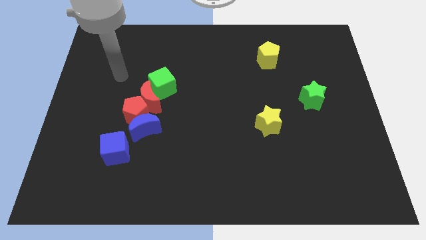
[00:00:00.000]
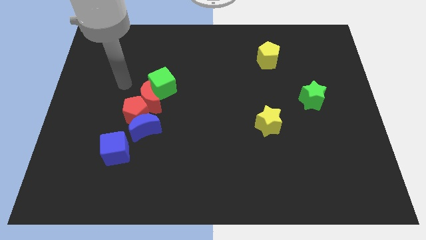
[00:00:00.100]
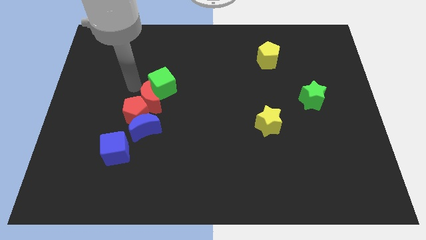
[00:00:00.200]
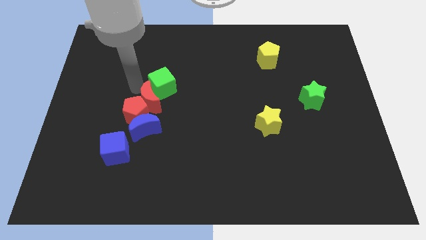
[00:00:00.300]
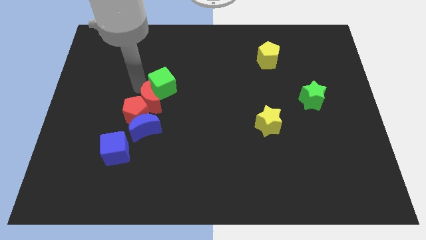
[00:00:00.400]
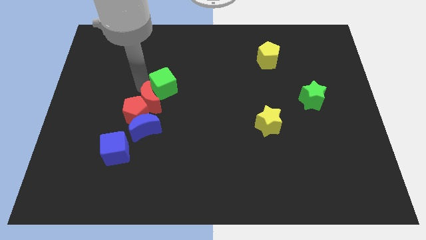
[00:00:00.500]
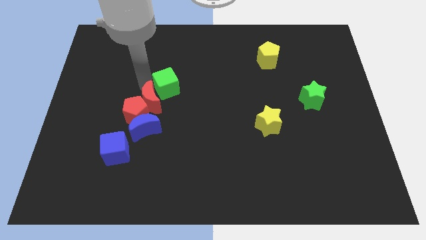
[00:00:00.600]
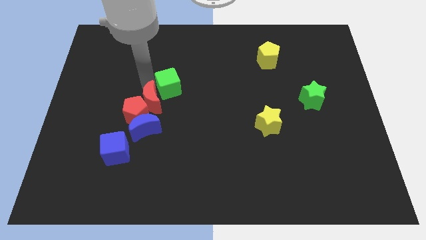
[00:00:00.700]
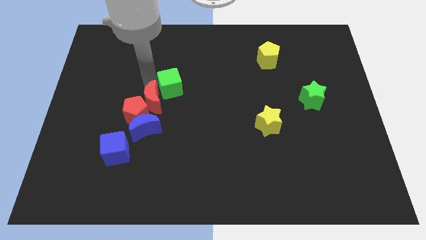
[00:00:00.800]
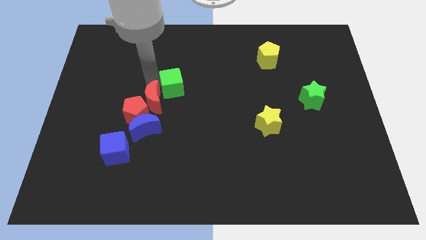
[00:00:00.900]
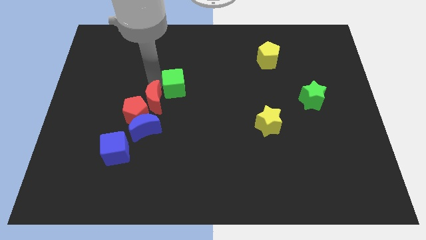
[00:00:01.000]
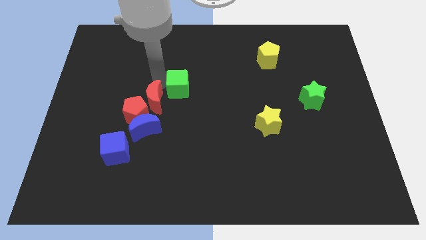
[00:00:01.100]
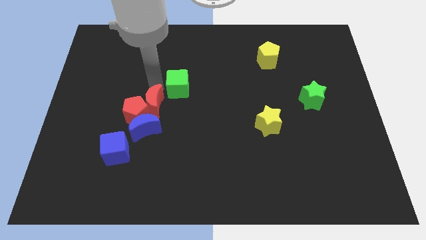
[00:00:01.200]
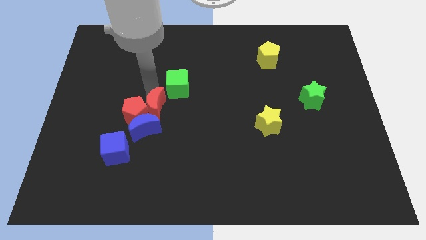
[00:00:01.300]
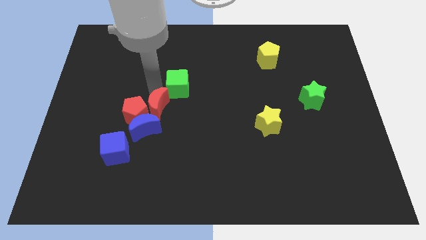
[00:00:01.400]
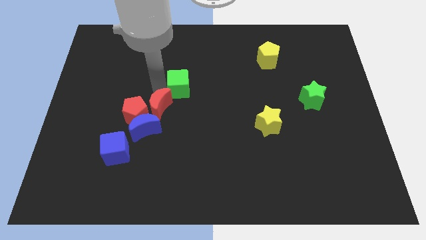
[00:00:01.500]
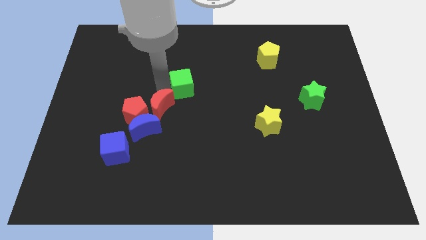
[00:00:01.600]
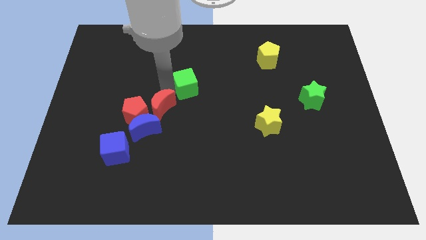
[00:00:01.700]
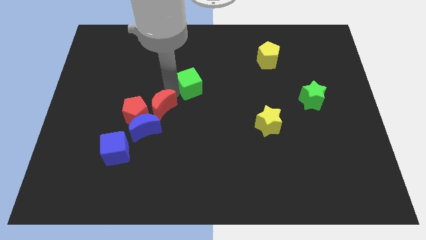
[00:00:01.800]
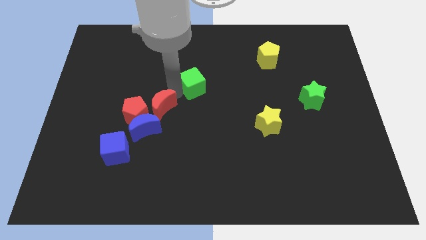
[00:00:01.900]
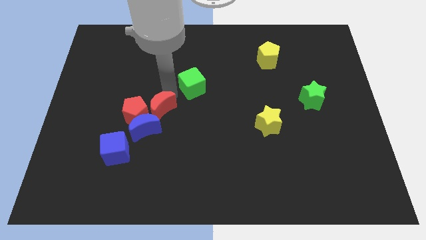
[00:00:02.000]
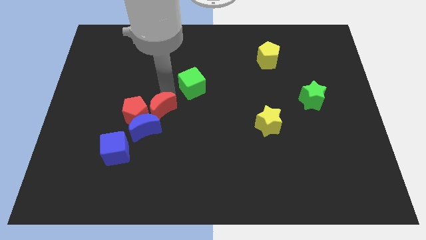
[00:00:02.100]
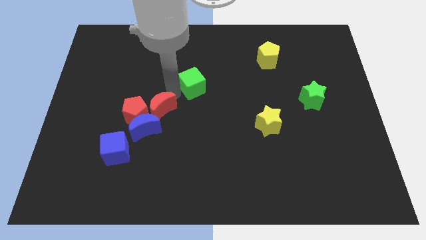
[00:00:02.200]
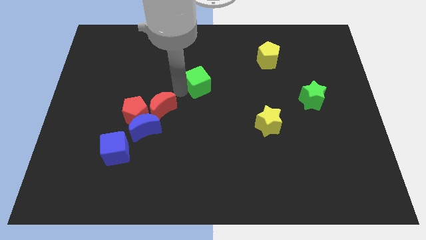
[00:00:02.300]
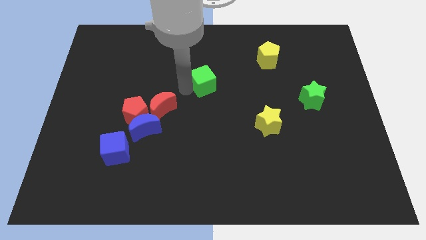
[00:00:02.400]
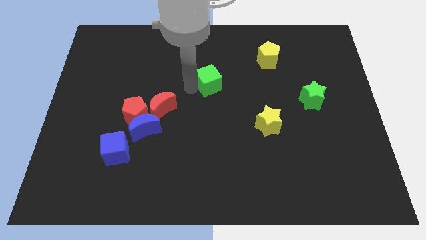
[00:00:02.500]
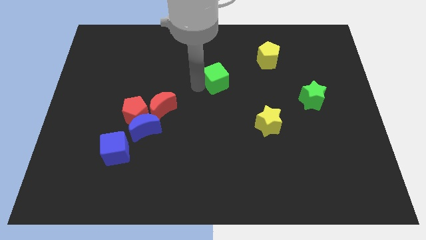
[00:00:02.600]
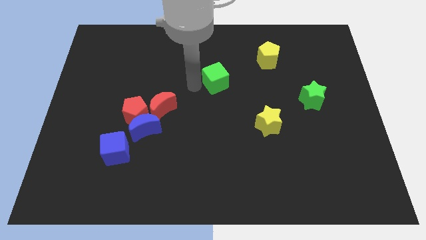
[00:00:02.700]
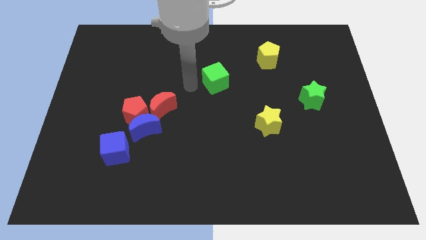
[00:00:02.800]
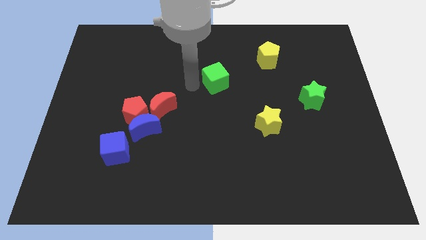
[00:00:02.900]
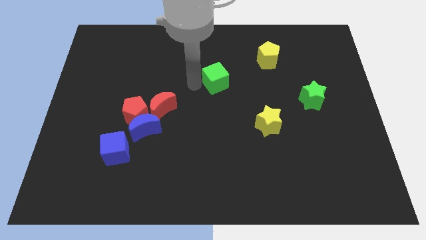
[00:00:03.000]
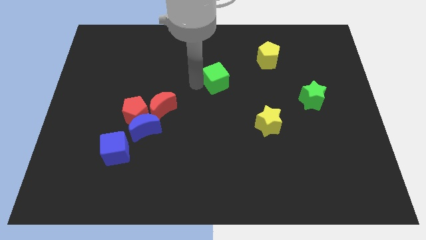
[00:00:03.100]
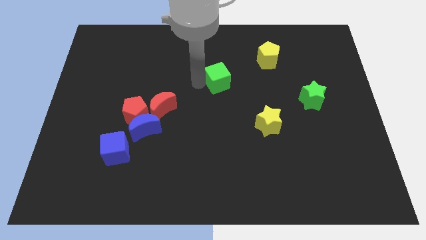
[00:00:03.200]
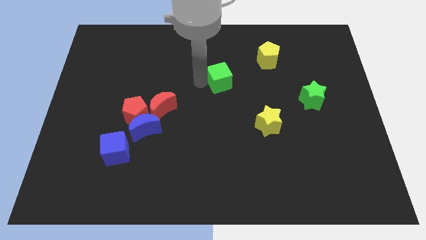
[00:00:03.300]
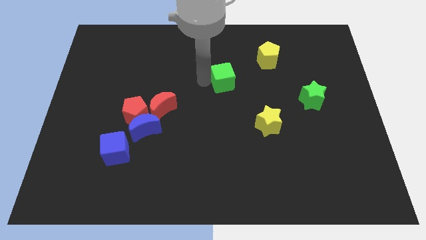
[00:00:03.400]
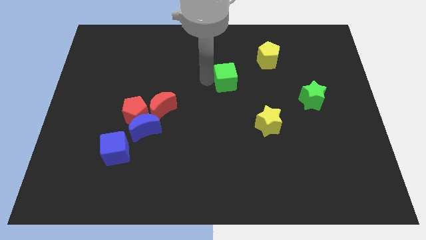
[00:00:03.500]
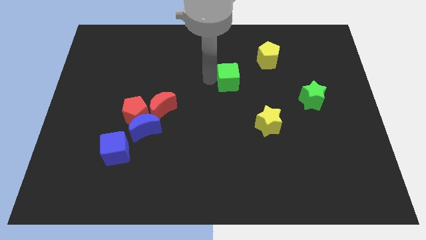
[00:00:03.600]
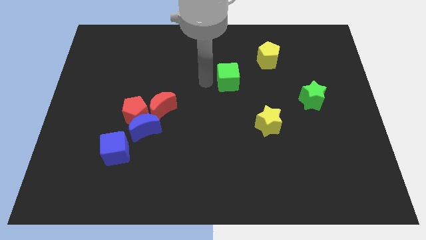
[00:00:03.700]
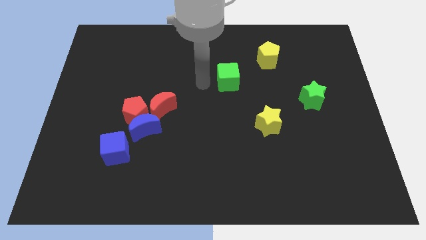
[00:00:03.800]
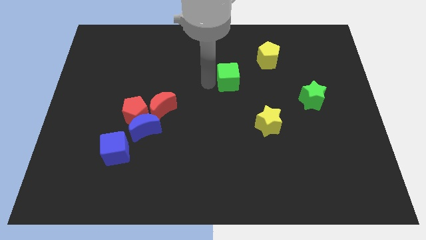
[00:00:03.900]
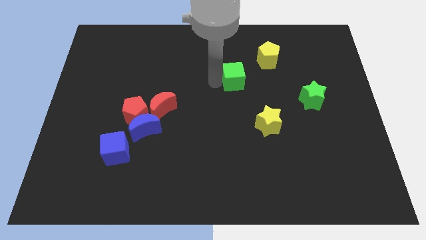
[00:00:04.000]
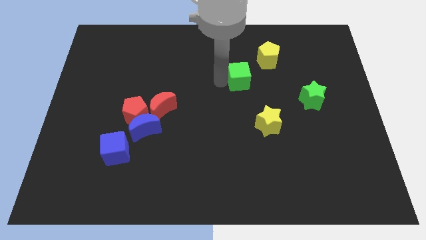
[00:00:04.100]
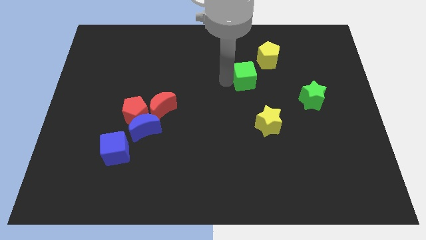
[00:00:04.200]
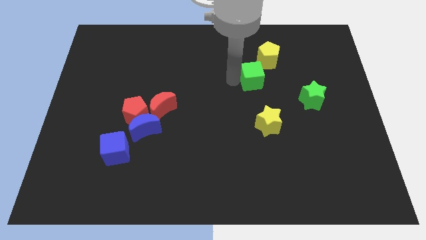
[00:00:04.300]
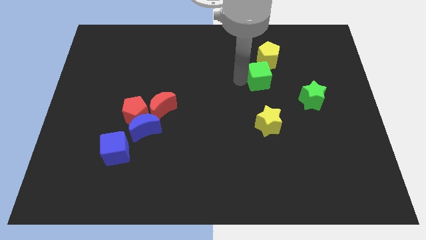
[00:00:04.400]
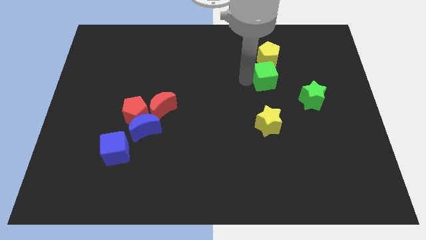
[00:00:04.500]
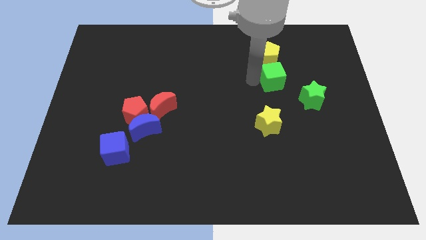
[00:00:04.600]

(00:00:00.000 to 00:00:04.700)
put the green cube diagonally down and to the right of the yellow pentagon

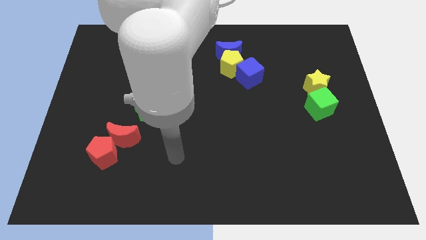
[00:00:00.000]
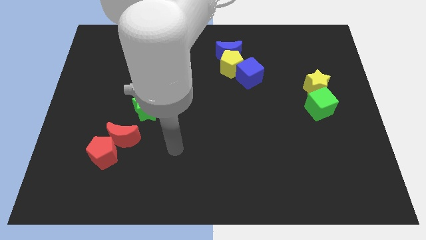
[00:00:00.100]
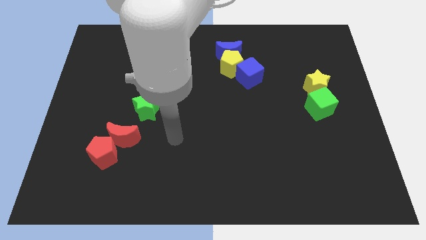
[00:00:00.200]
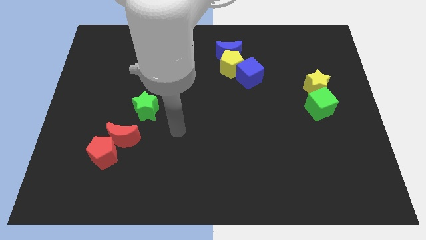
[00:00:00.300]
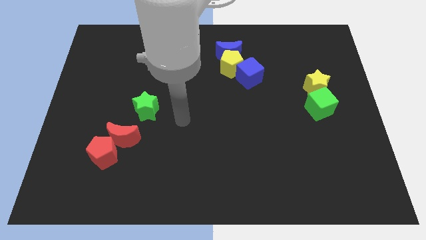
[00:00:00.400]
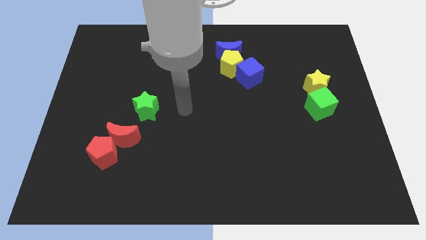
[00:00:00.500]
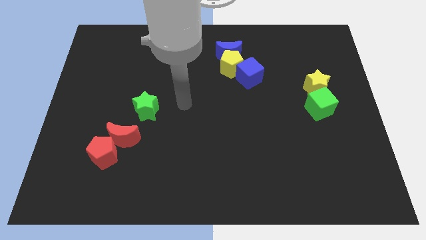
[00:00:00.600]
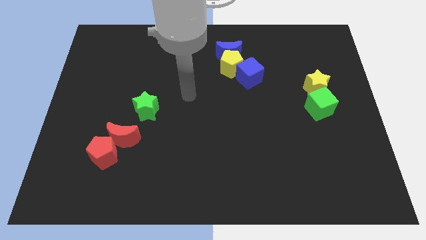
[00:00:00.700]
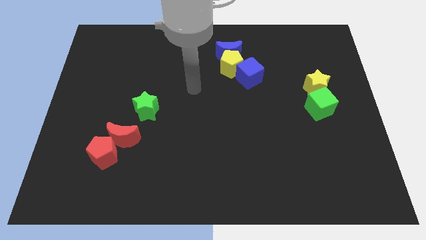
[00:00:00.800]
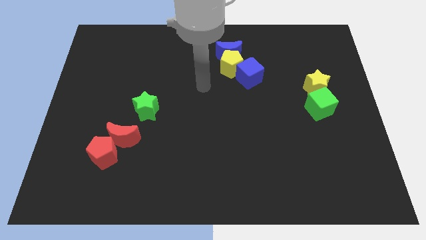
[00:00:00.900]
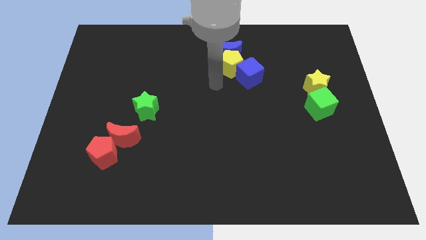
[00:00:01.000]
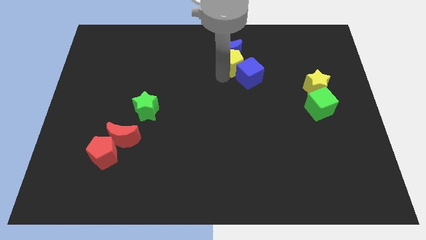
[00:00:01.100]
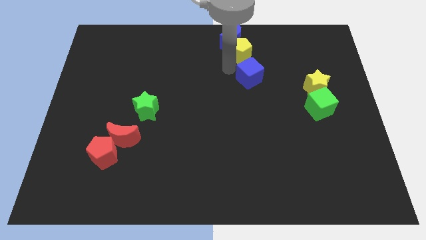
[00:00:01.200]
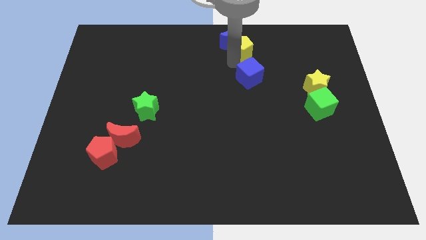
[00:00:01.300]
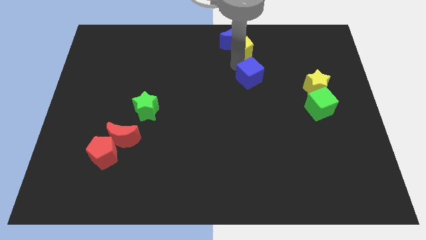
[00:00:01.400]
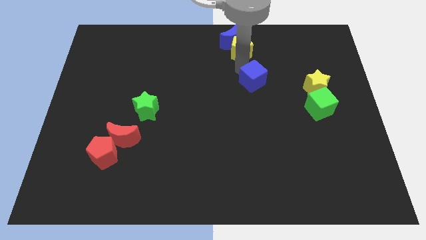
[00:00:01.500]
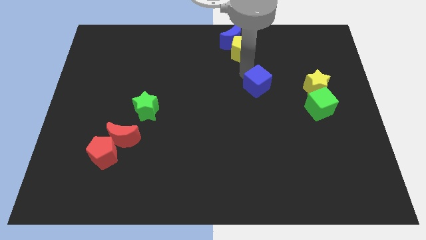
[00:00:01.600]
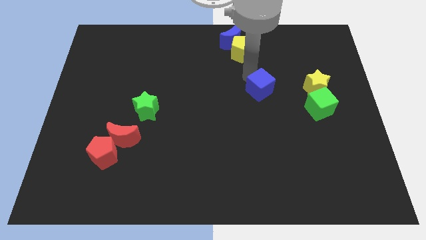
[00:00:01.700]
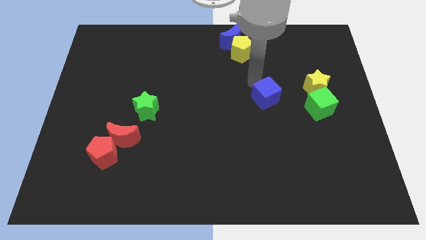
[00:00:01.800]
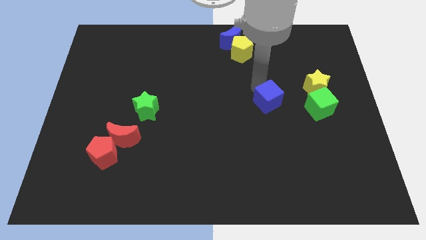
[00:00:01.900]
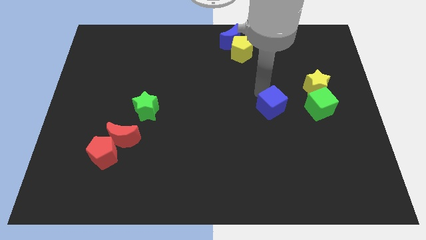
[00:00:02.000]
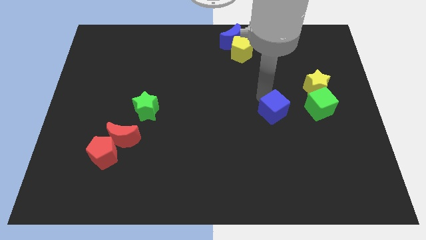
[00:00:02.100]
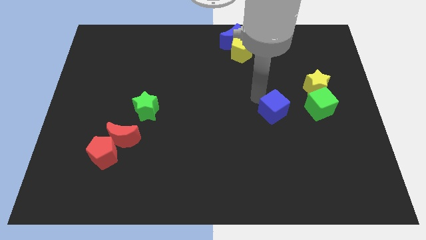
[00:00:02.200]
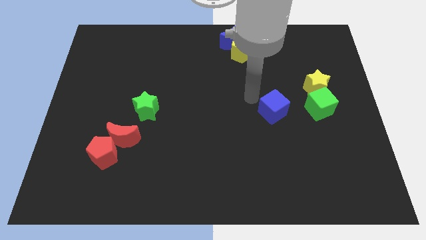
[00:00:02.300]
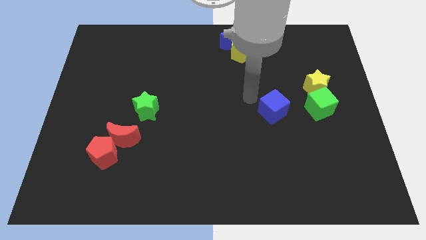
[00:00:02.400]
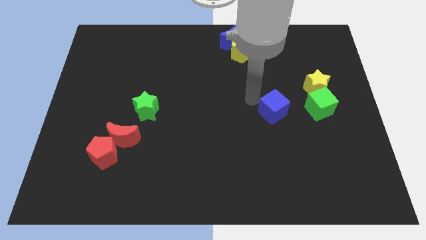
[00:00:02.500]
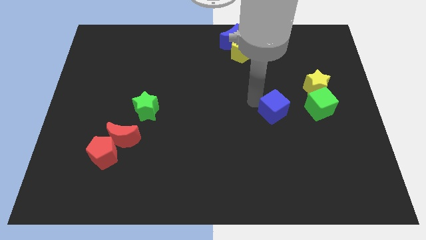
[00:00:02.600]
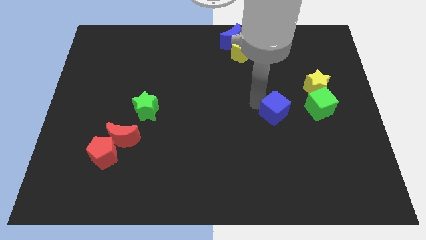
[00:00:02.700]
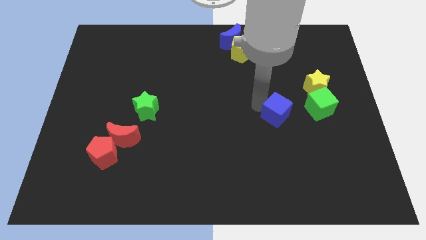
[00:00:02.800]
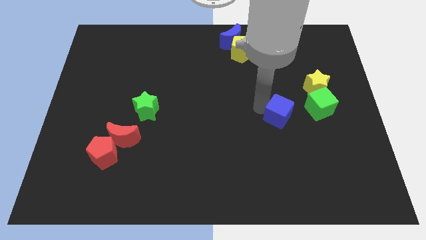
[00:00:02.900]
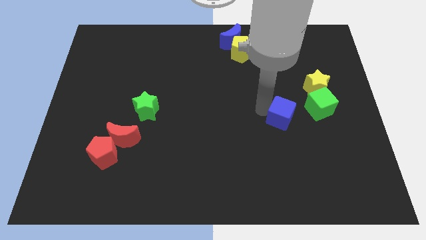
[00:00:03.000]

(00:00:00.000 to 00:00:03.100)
slide the blue cube to the bottom left side of the green cube

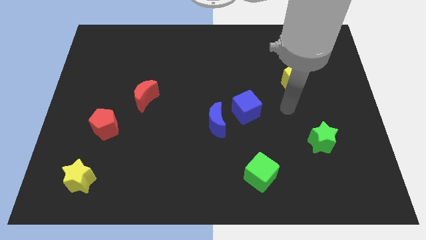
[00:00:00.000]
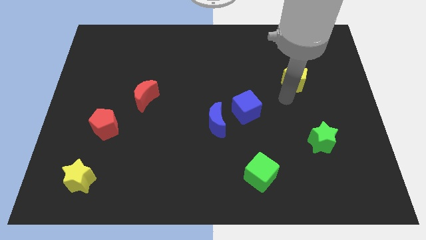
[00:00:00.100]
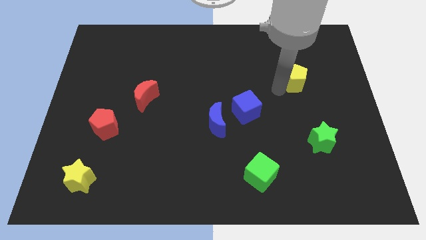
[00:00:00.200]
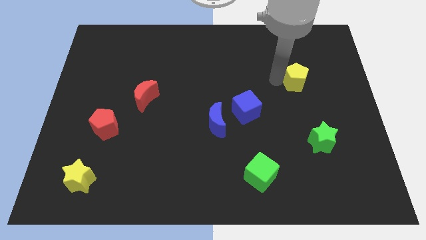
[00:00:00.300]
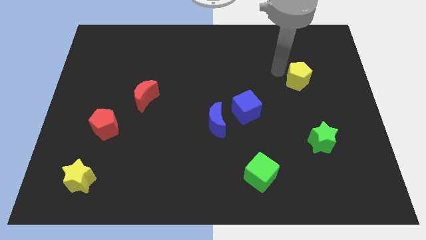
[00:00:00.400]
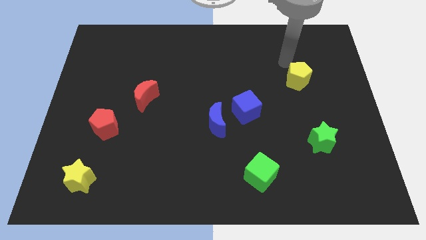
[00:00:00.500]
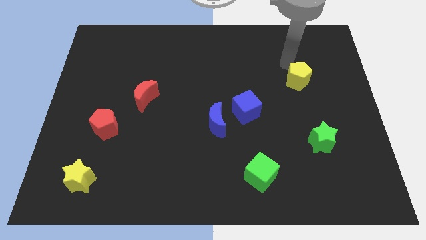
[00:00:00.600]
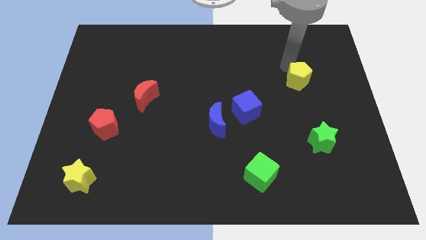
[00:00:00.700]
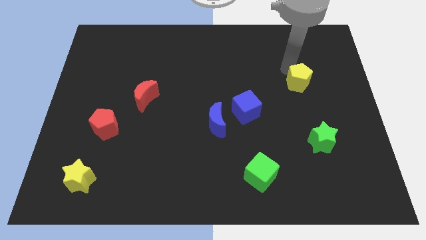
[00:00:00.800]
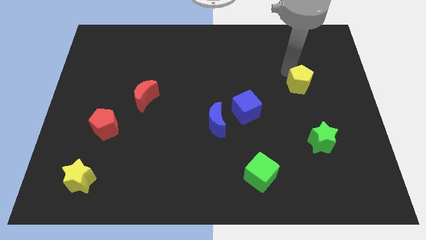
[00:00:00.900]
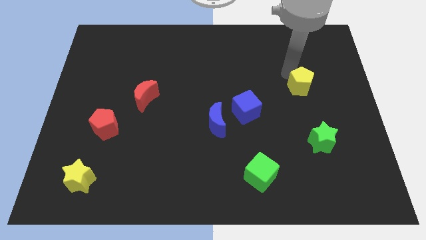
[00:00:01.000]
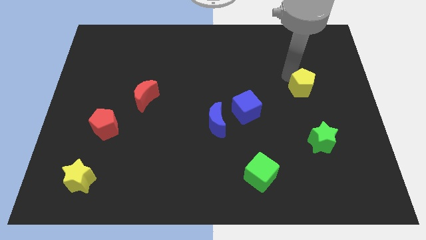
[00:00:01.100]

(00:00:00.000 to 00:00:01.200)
slide the yellow pentagon to the top of the green star
